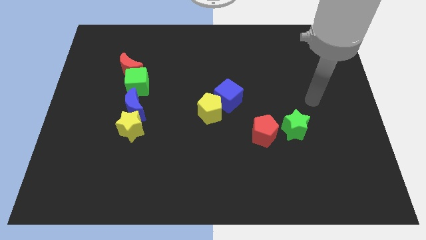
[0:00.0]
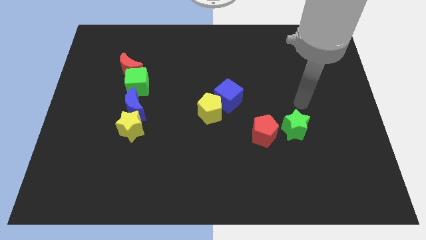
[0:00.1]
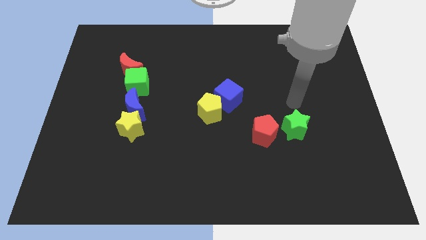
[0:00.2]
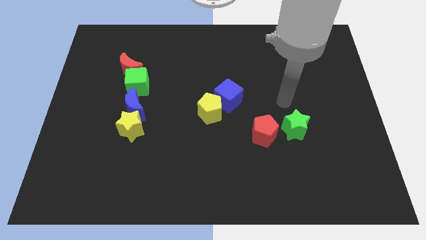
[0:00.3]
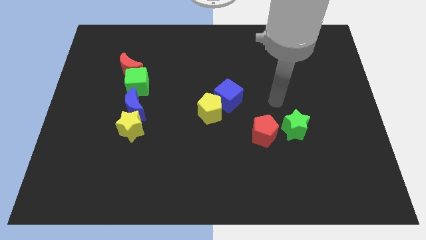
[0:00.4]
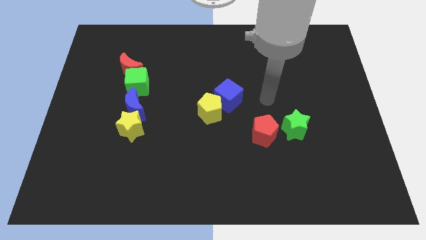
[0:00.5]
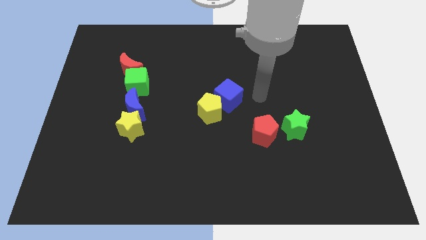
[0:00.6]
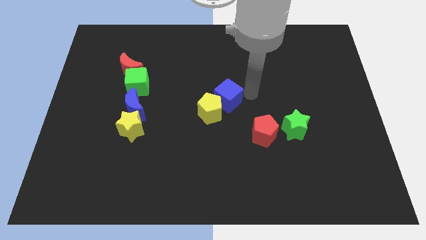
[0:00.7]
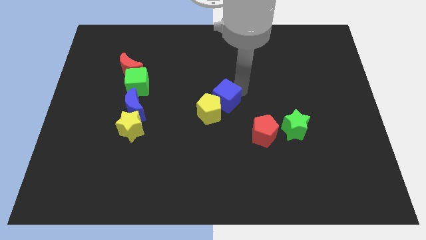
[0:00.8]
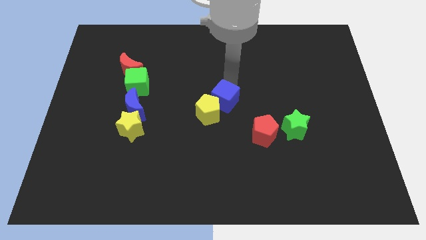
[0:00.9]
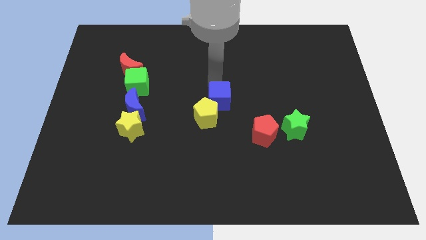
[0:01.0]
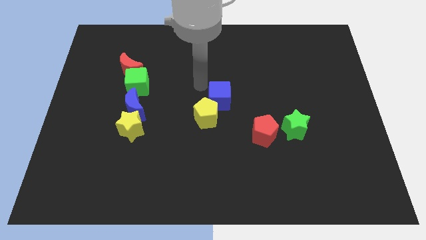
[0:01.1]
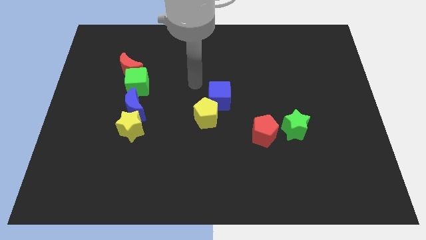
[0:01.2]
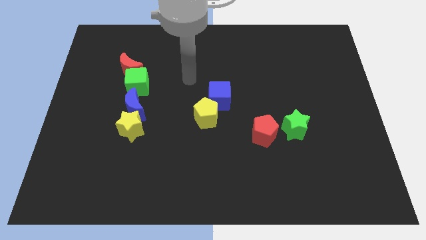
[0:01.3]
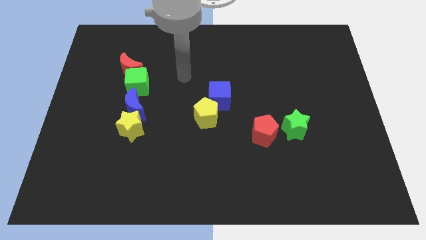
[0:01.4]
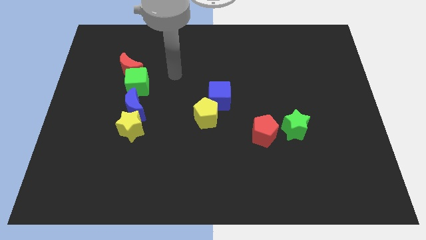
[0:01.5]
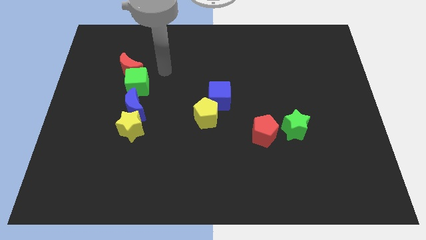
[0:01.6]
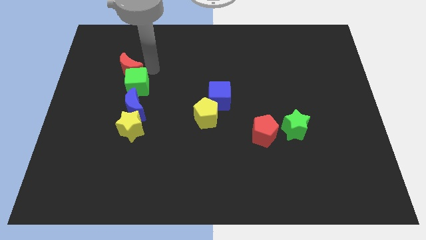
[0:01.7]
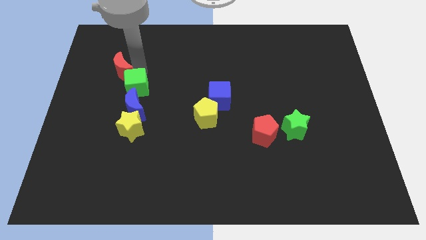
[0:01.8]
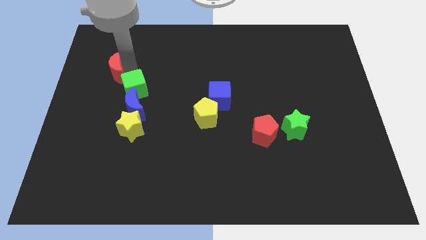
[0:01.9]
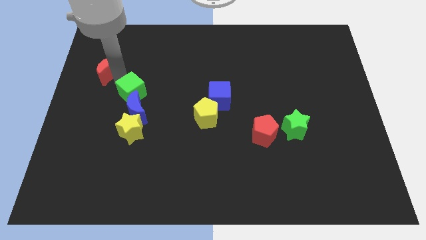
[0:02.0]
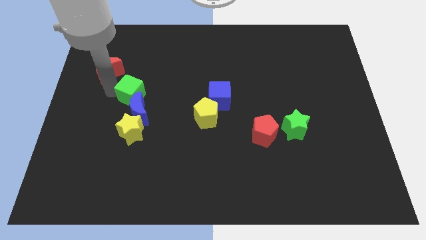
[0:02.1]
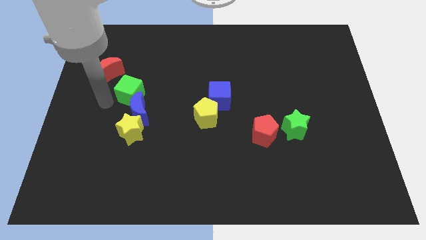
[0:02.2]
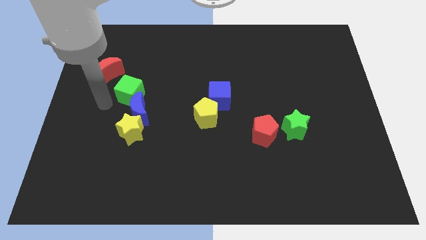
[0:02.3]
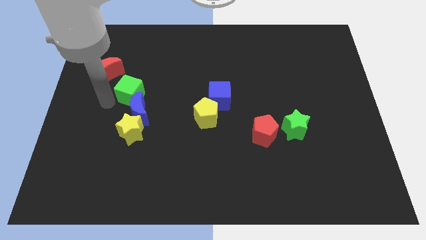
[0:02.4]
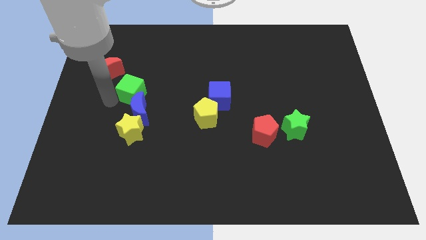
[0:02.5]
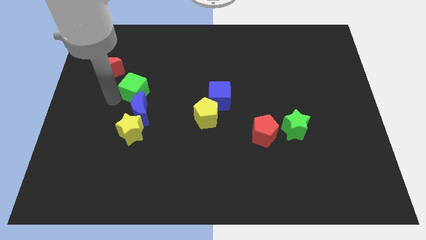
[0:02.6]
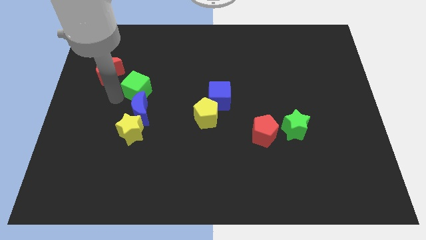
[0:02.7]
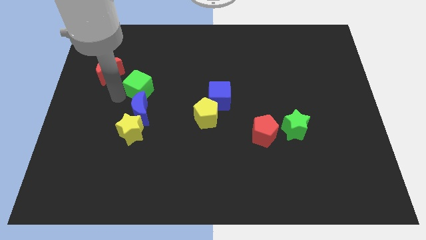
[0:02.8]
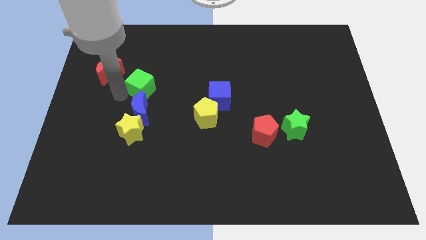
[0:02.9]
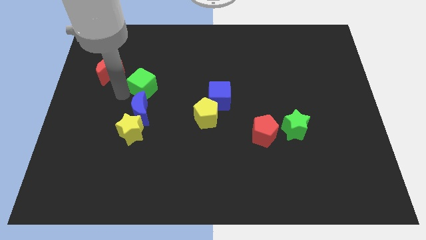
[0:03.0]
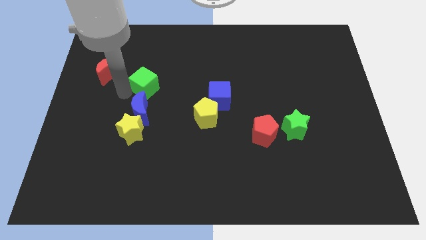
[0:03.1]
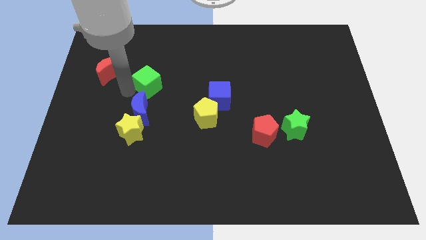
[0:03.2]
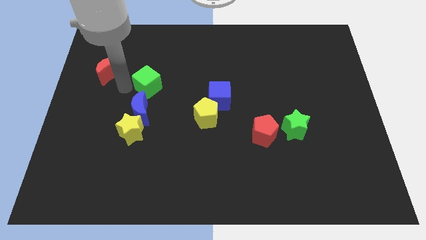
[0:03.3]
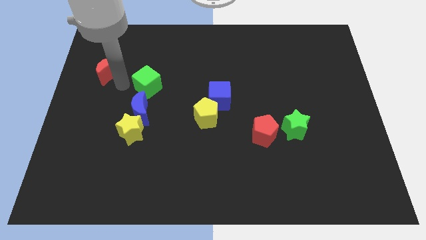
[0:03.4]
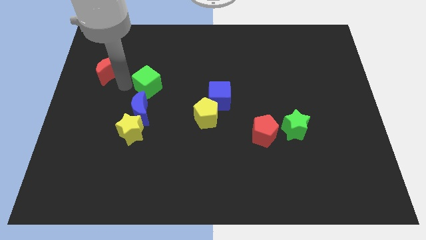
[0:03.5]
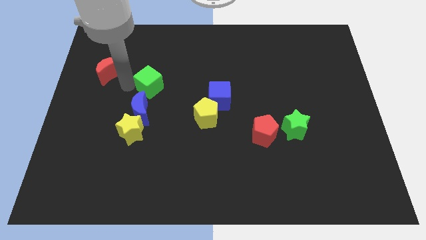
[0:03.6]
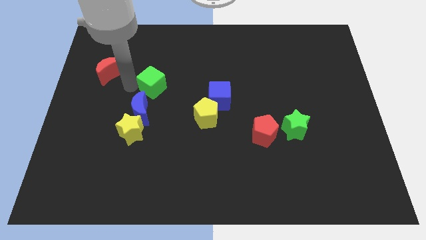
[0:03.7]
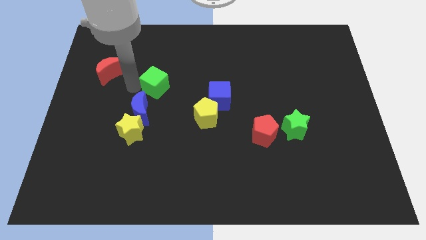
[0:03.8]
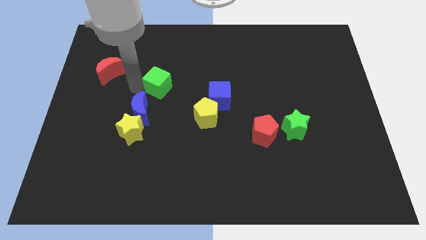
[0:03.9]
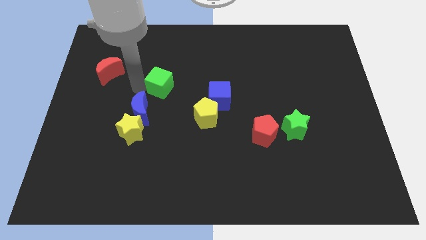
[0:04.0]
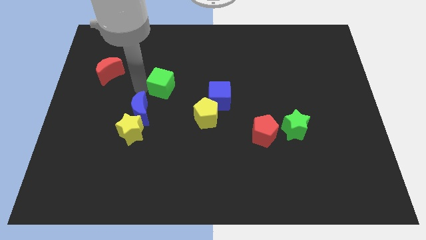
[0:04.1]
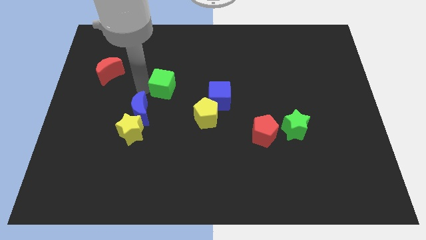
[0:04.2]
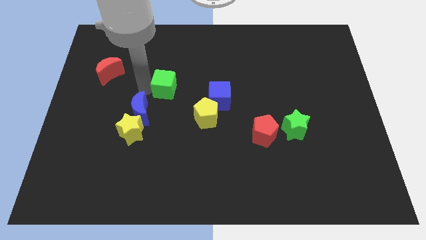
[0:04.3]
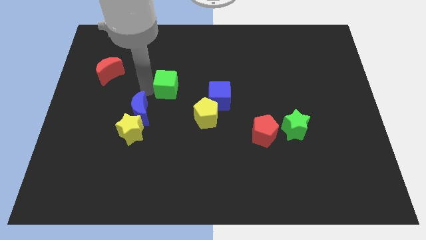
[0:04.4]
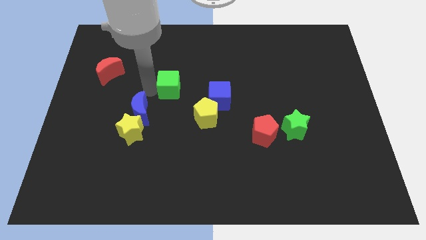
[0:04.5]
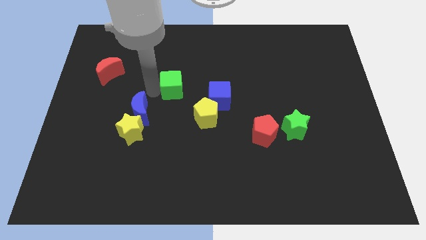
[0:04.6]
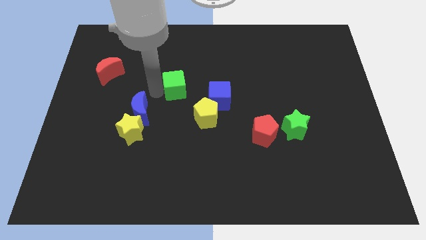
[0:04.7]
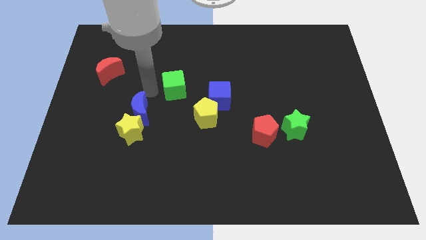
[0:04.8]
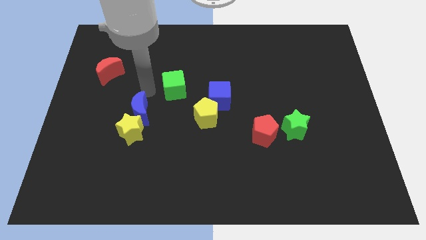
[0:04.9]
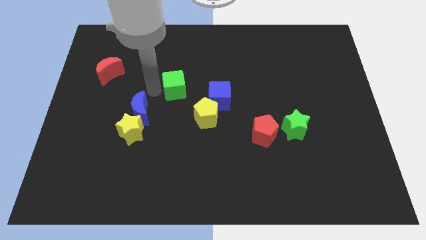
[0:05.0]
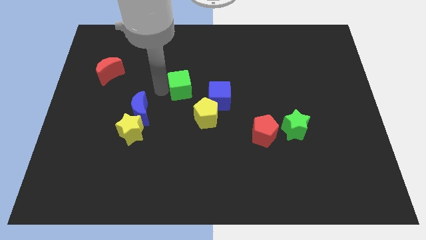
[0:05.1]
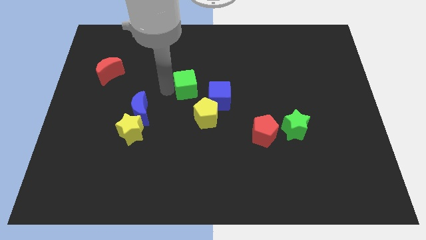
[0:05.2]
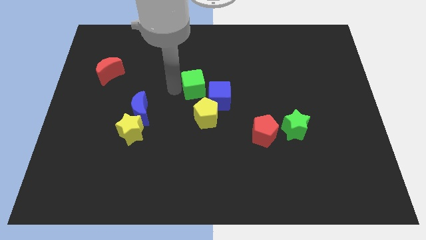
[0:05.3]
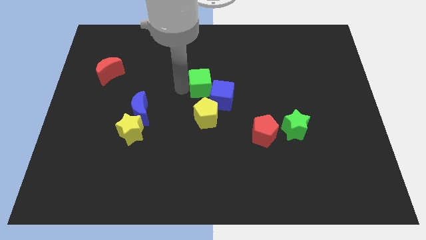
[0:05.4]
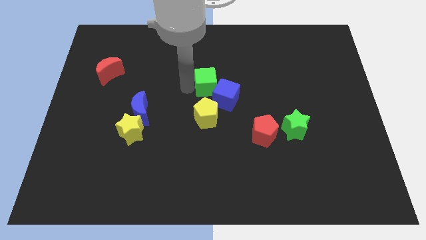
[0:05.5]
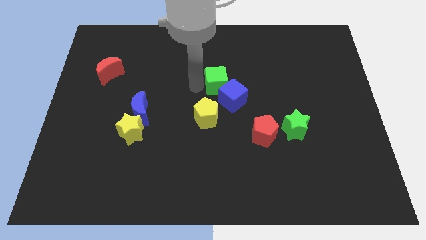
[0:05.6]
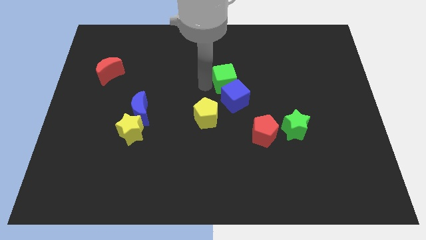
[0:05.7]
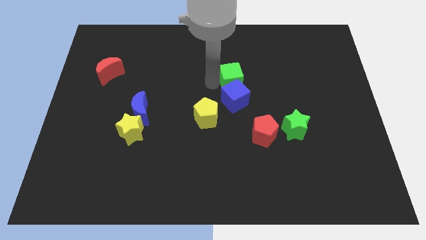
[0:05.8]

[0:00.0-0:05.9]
push the green cube diagonally up and to the right of the blue cube

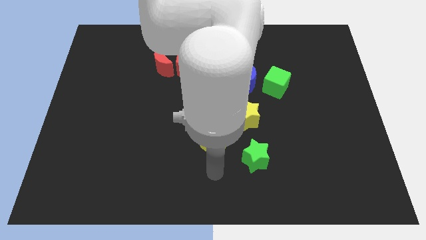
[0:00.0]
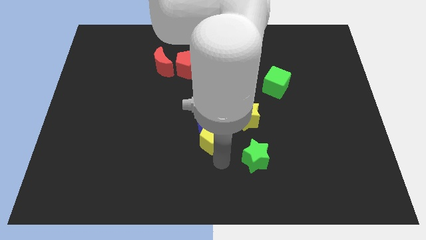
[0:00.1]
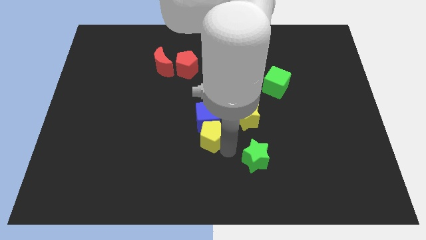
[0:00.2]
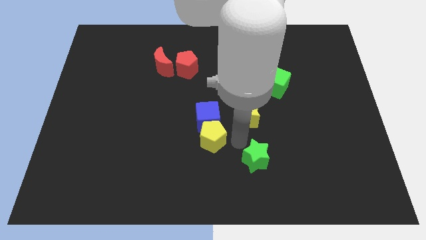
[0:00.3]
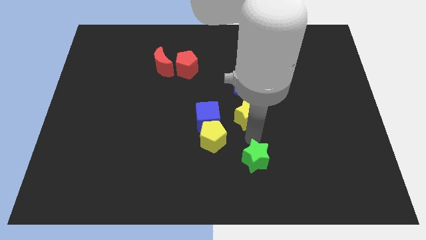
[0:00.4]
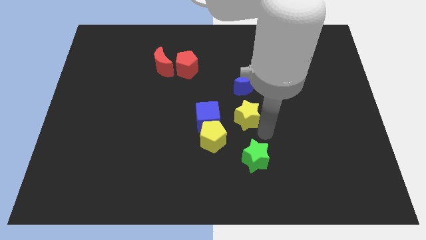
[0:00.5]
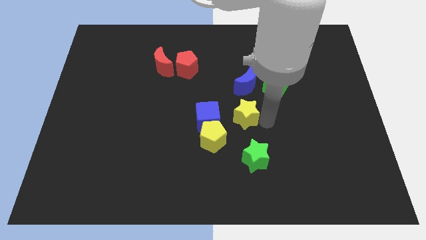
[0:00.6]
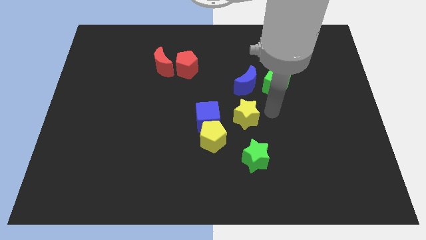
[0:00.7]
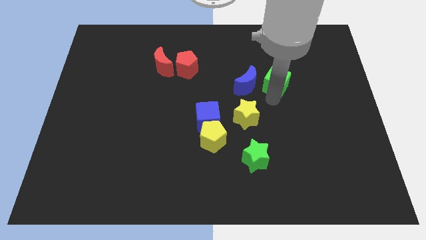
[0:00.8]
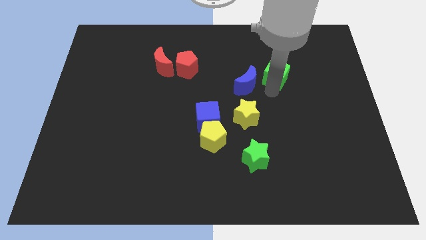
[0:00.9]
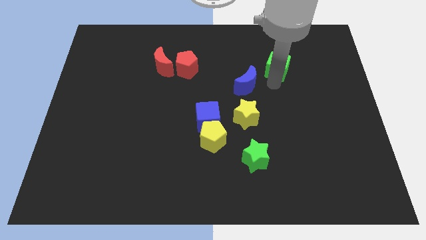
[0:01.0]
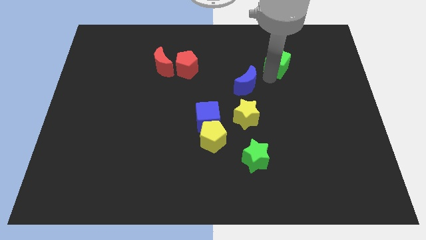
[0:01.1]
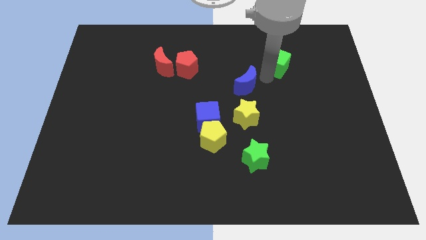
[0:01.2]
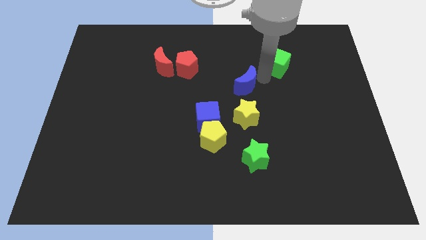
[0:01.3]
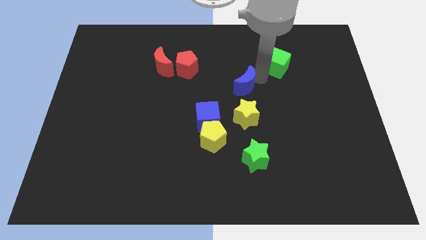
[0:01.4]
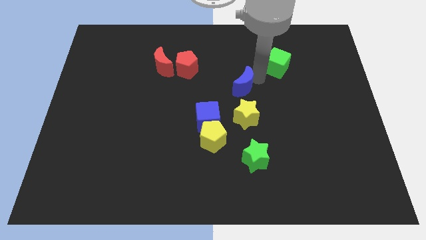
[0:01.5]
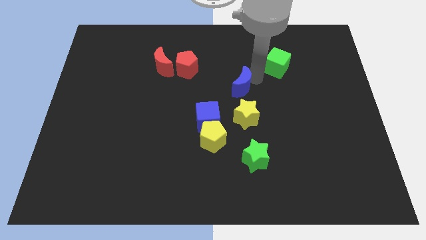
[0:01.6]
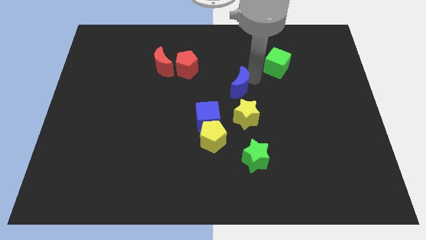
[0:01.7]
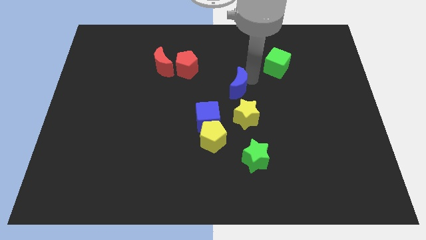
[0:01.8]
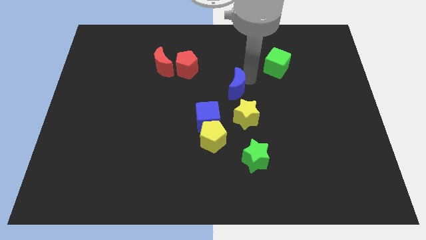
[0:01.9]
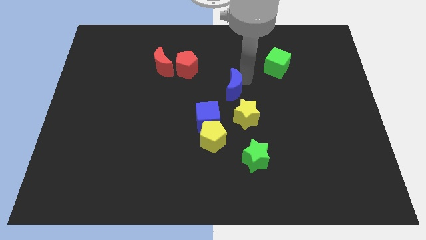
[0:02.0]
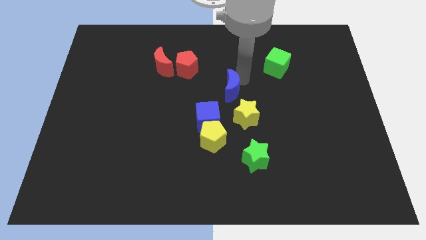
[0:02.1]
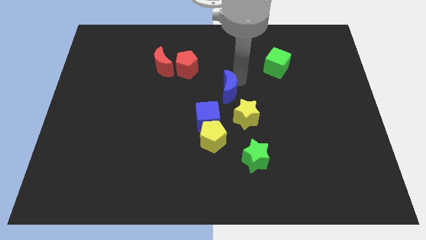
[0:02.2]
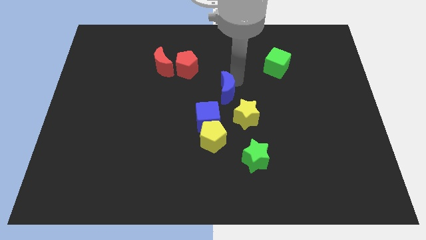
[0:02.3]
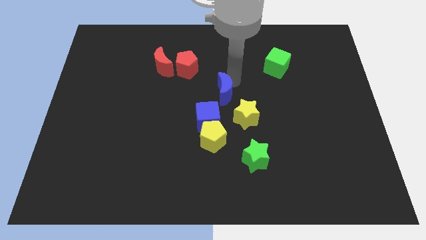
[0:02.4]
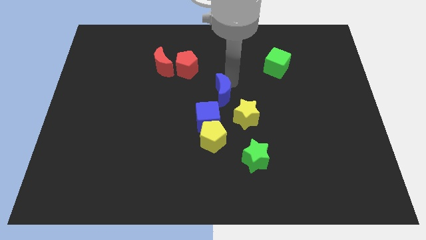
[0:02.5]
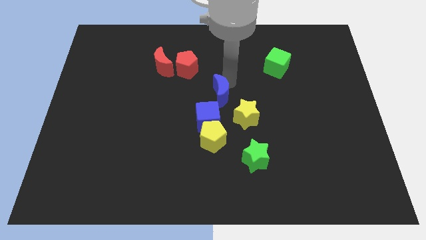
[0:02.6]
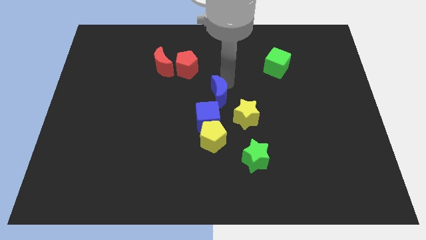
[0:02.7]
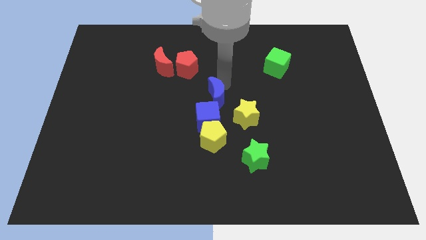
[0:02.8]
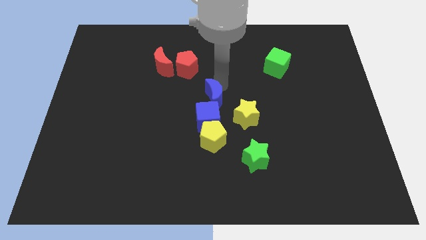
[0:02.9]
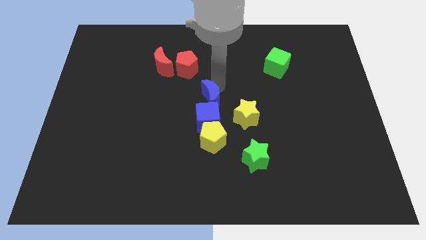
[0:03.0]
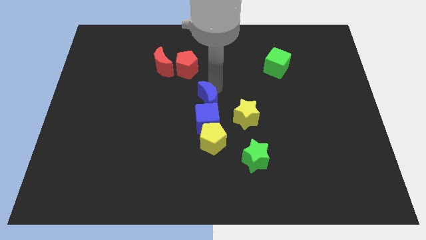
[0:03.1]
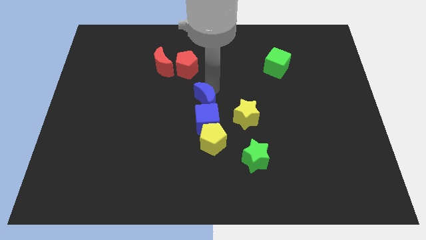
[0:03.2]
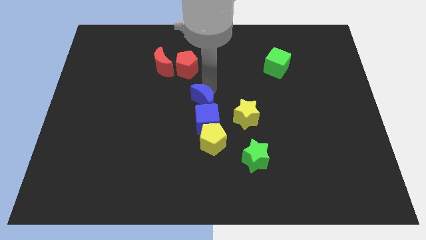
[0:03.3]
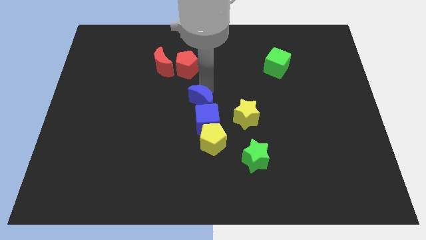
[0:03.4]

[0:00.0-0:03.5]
move the blue moon left of the yellow star
